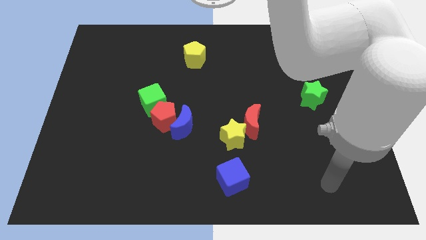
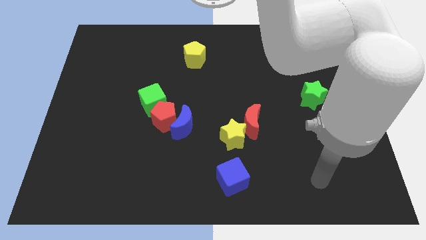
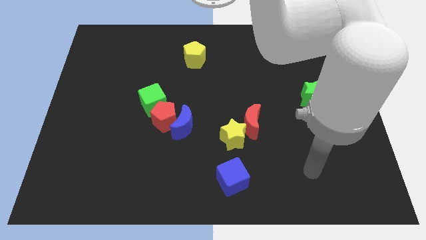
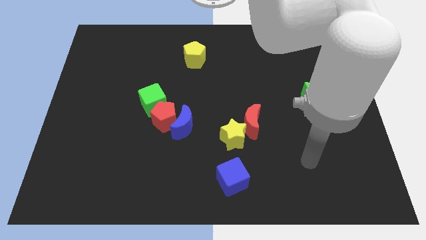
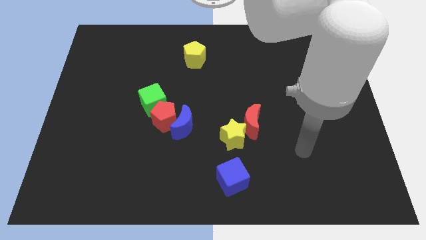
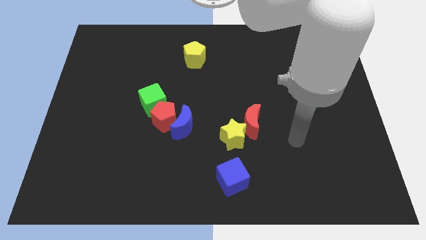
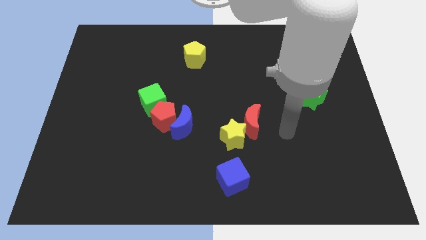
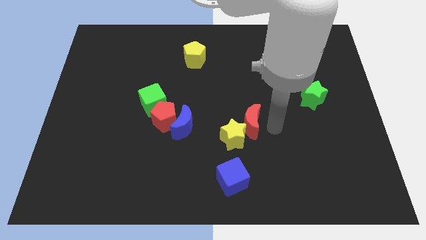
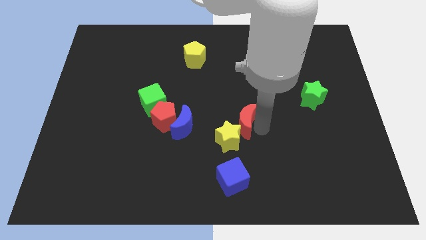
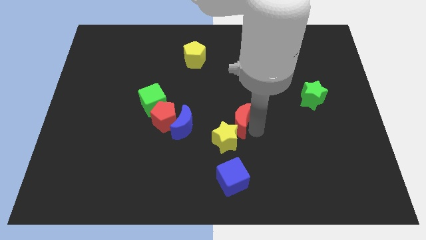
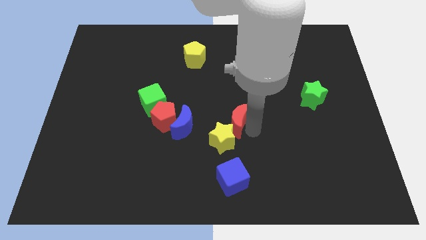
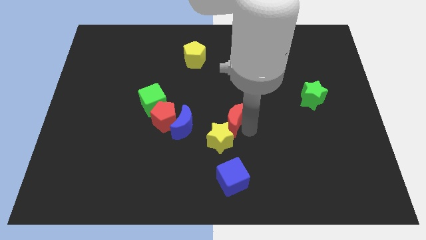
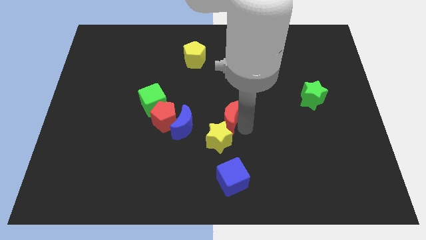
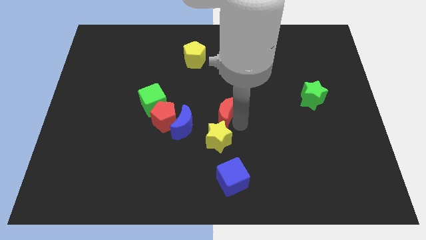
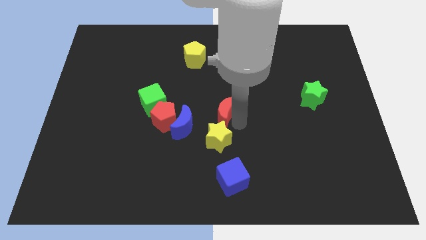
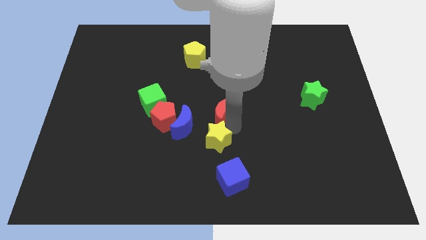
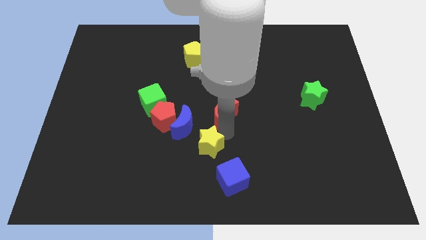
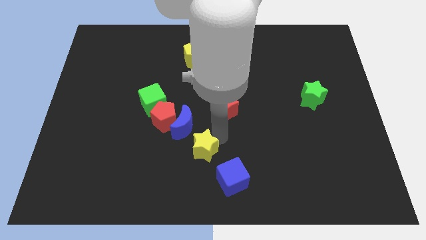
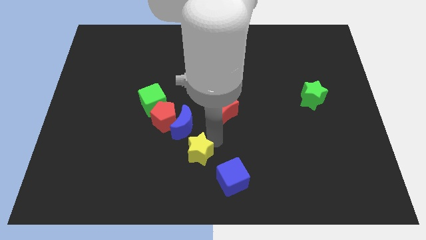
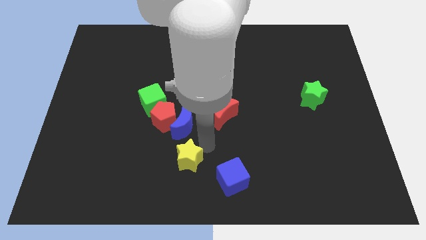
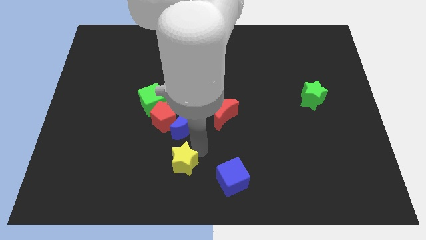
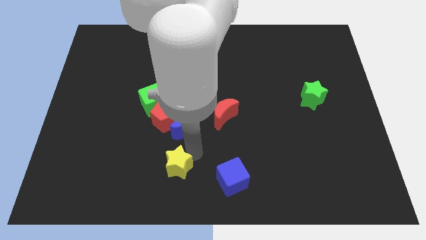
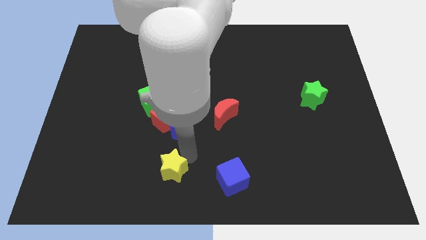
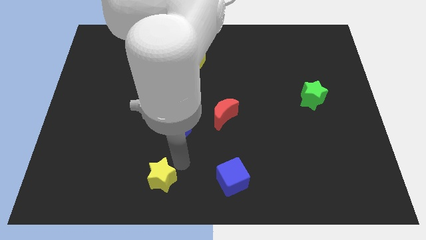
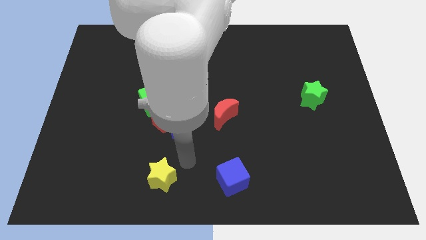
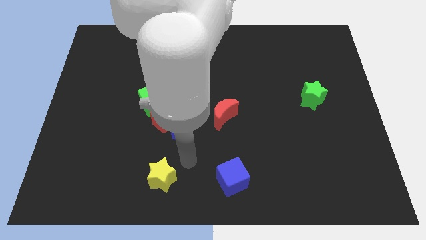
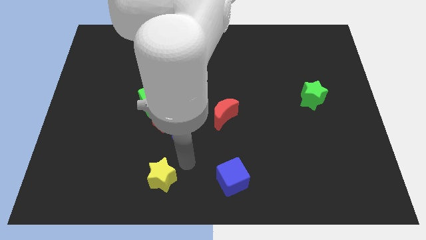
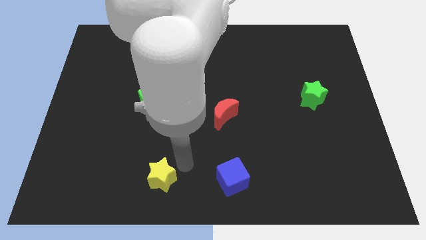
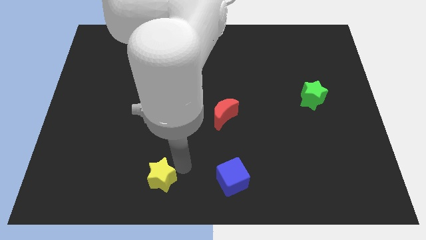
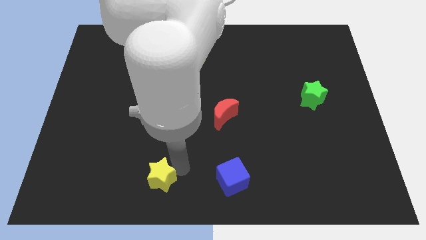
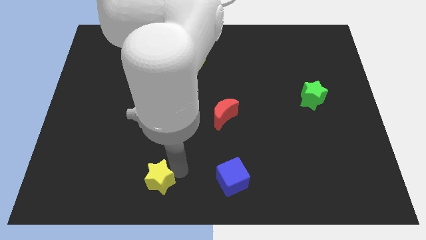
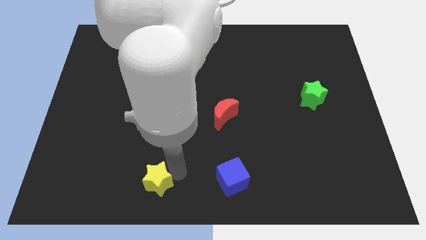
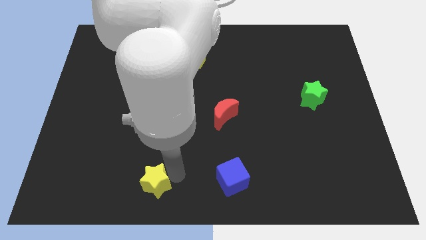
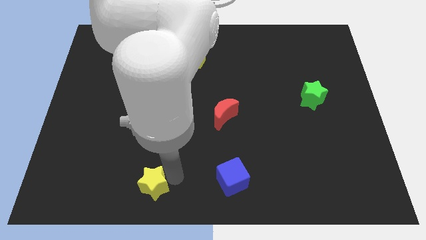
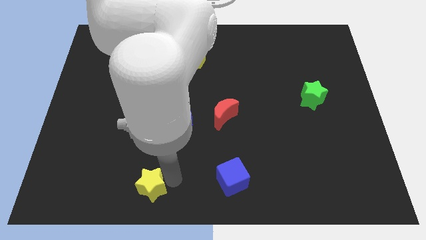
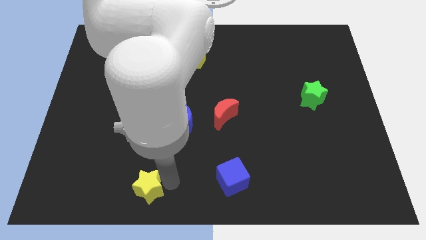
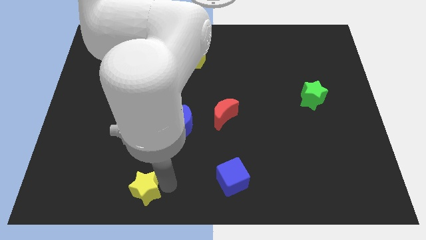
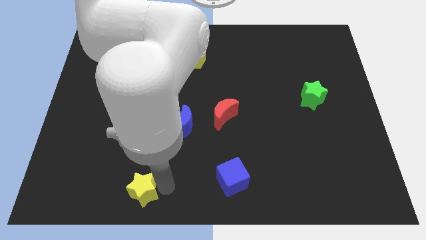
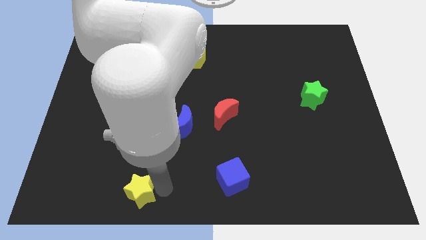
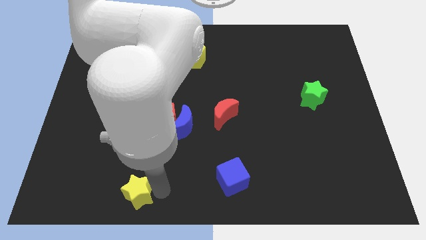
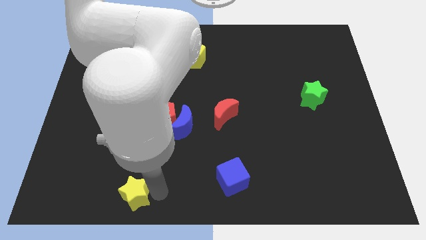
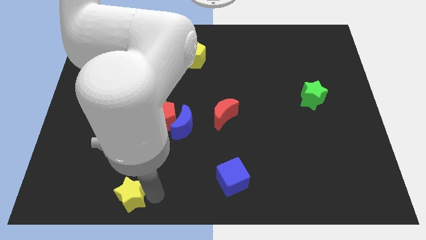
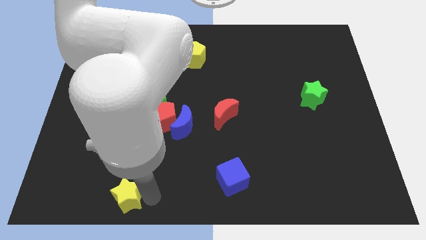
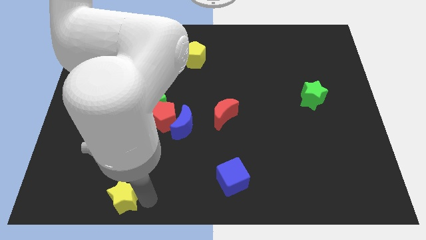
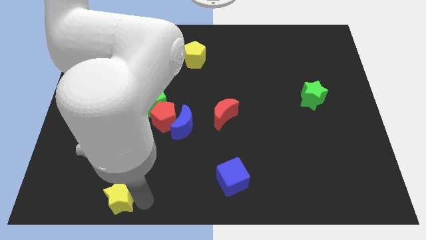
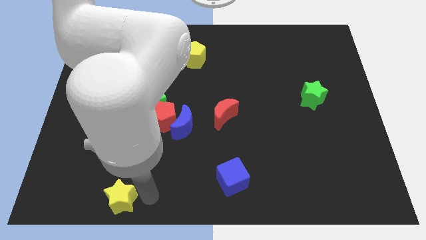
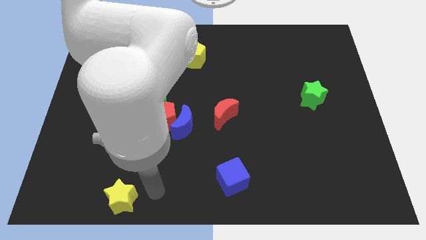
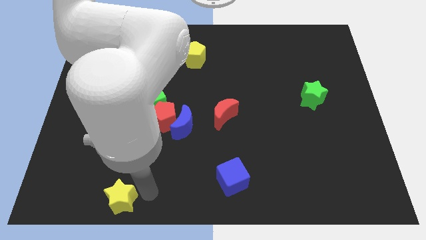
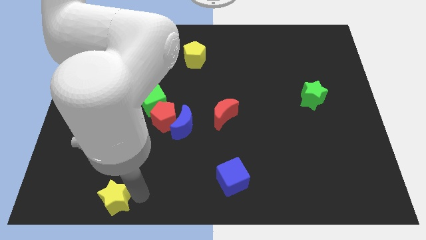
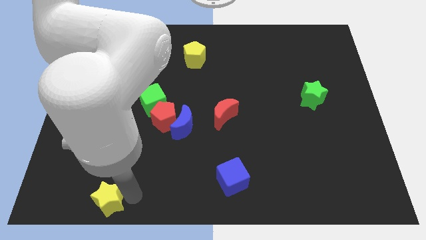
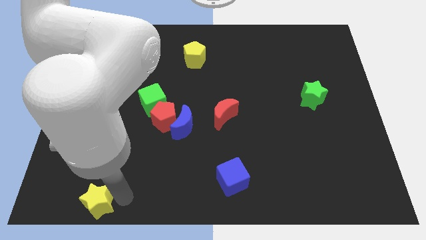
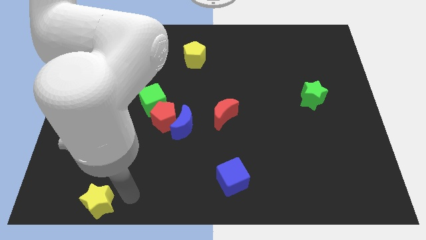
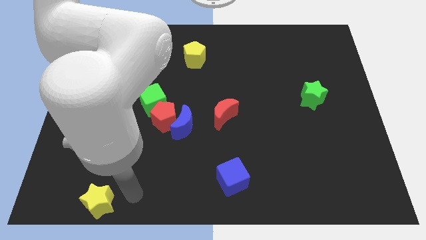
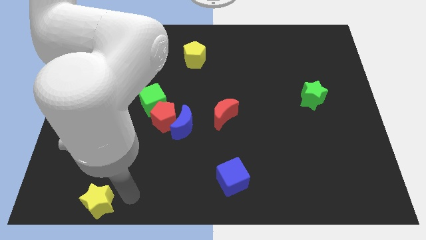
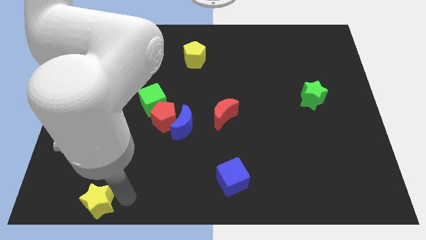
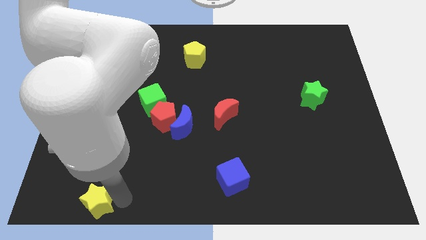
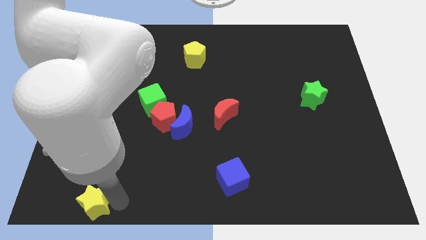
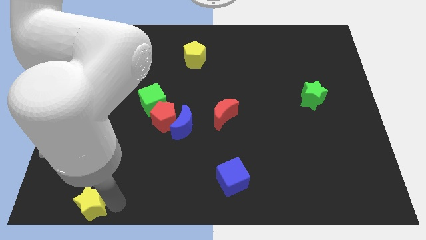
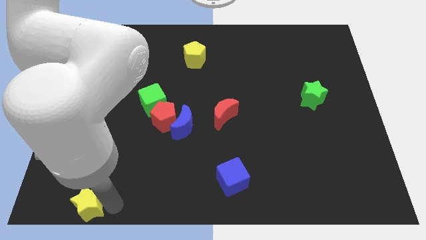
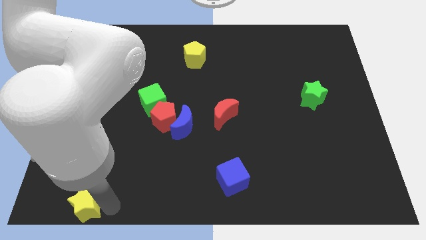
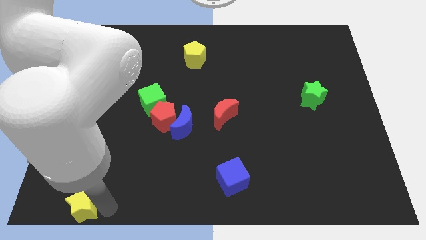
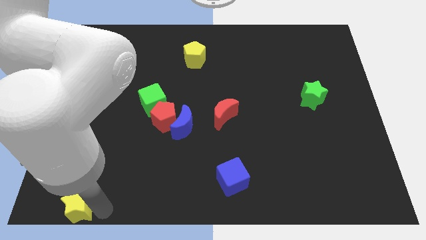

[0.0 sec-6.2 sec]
push the yellow star to the bottom left of the board

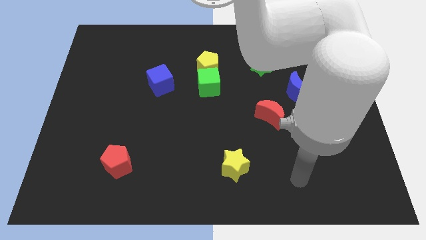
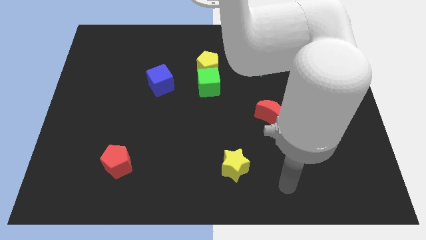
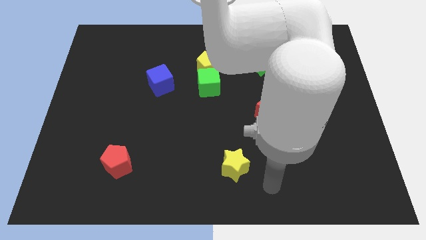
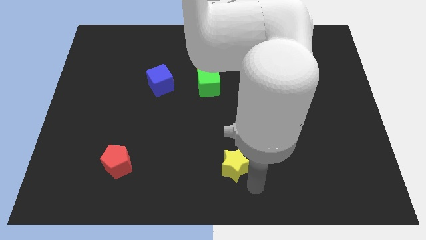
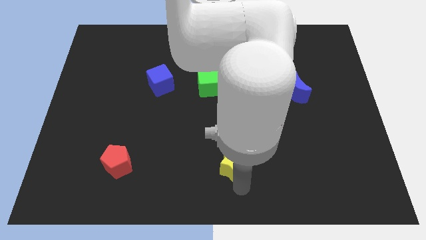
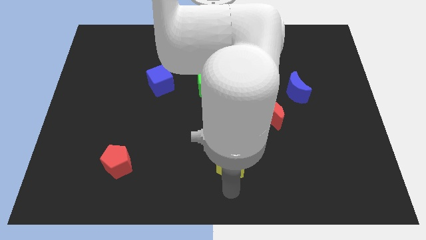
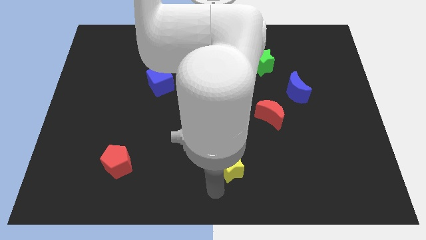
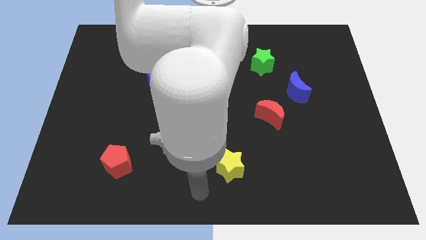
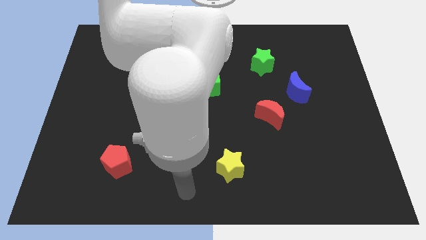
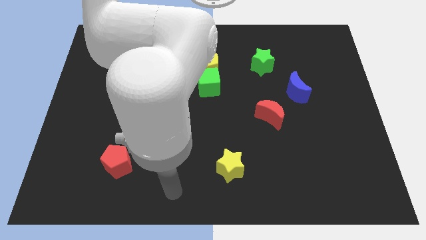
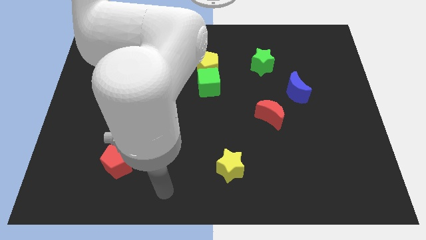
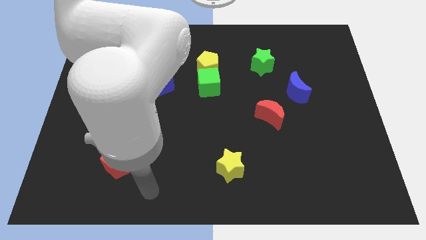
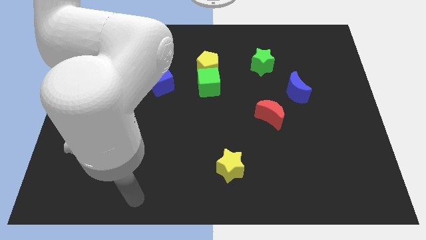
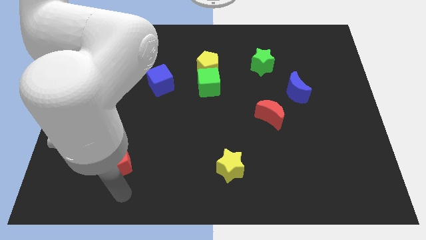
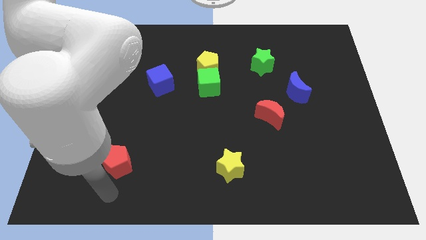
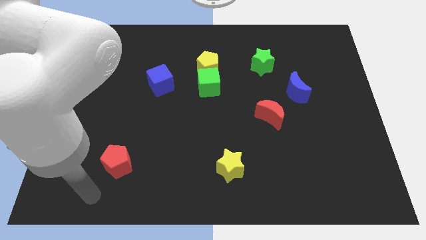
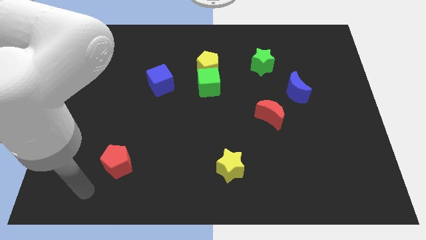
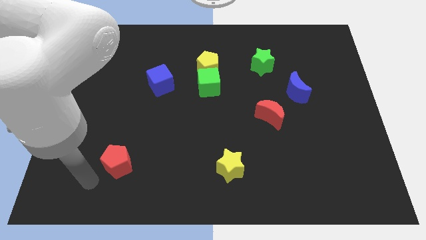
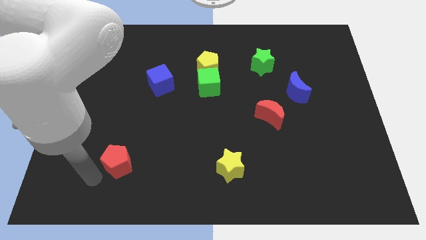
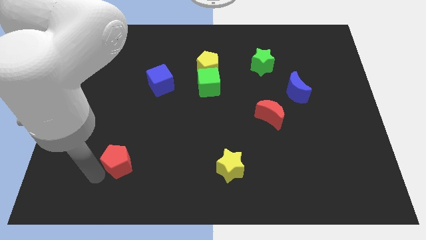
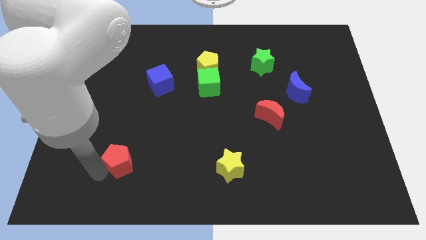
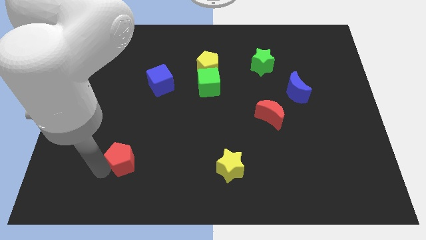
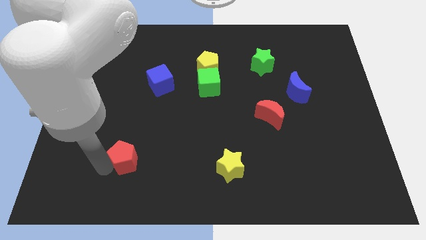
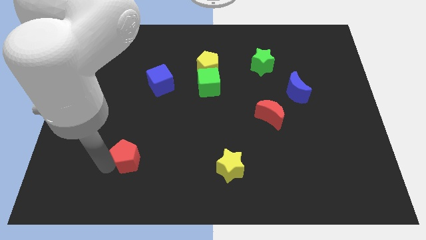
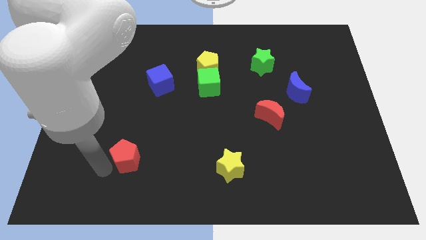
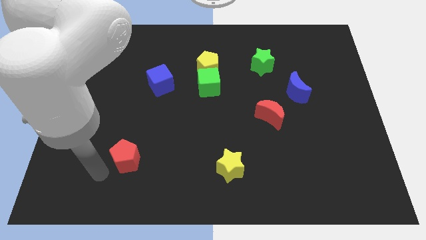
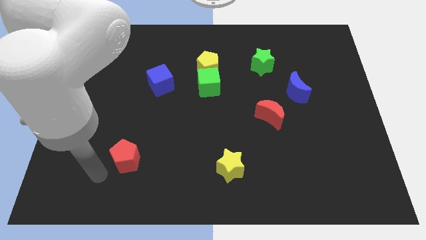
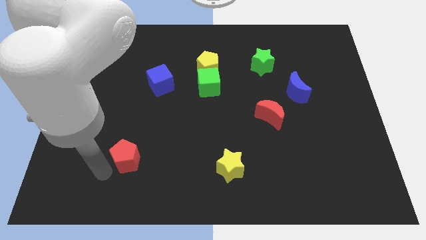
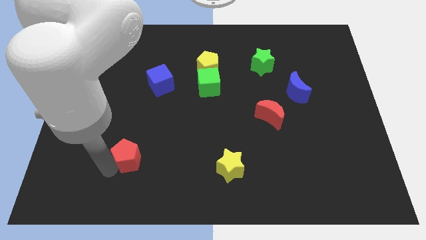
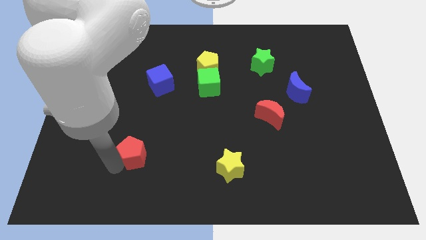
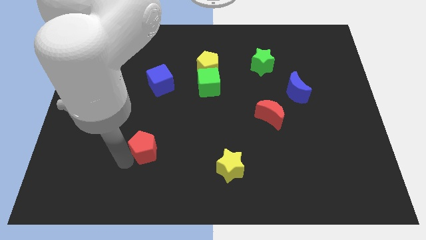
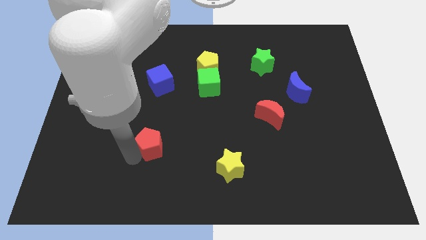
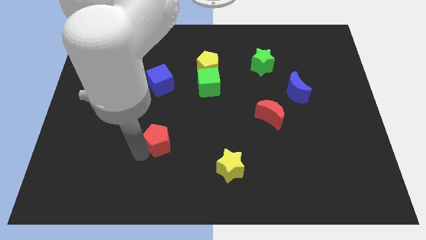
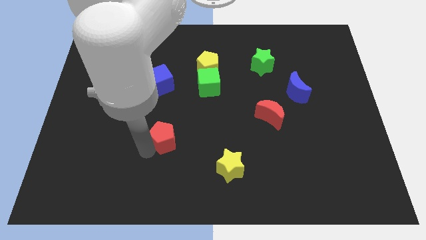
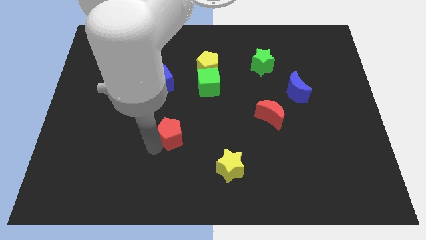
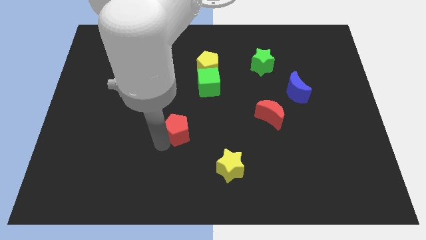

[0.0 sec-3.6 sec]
move the red pentagon to the center
